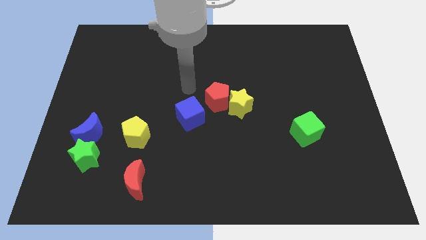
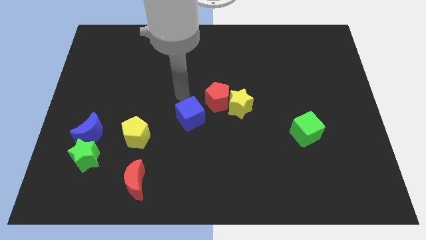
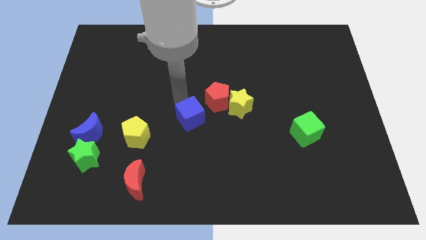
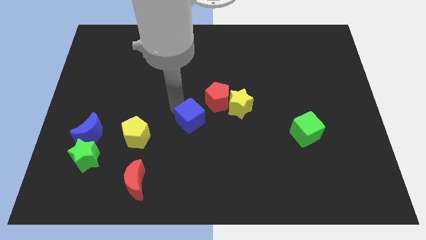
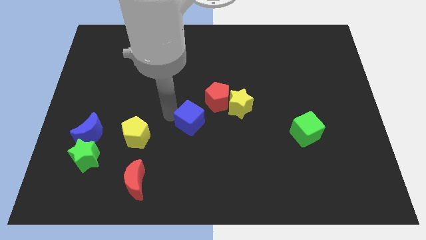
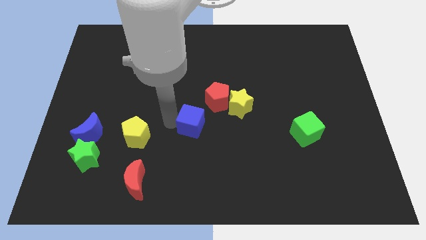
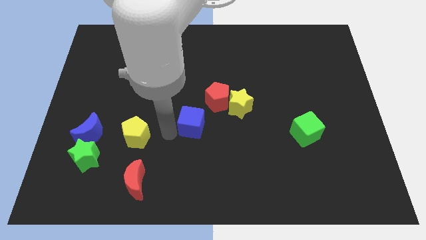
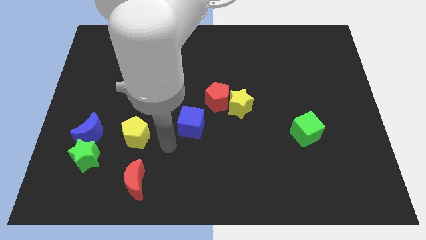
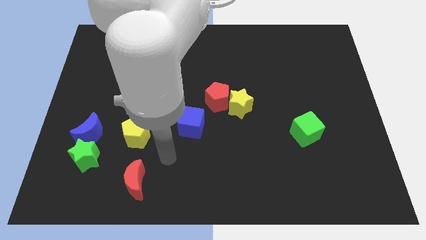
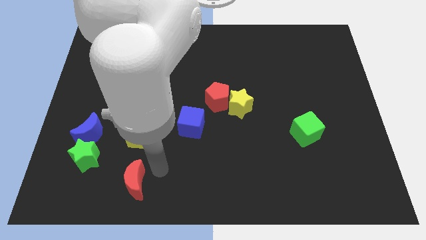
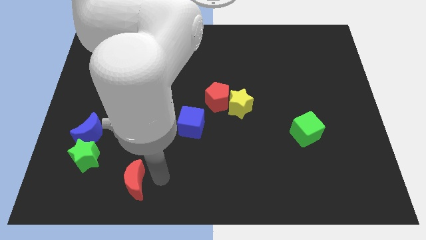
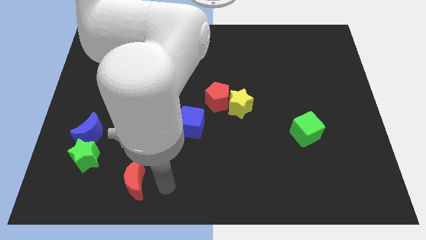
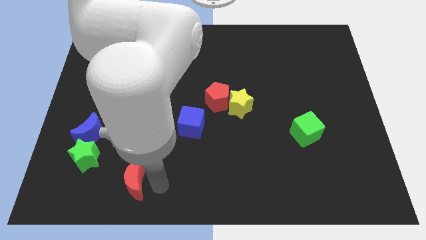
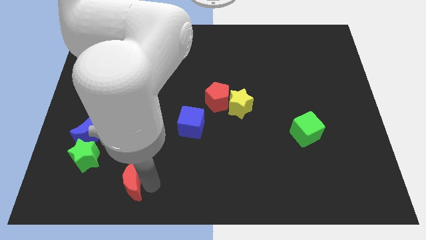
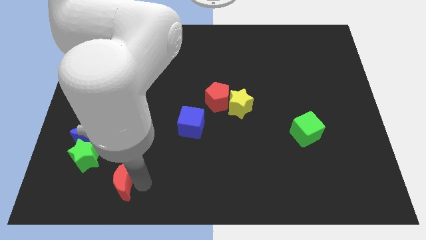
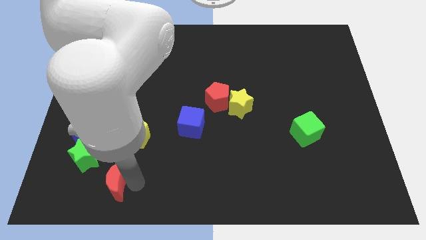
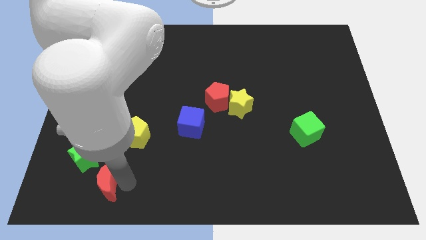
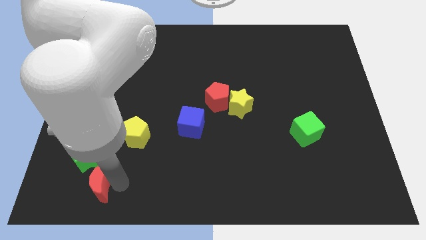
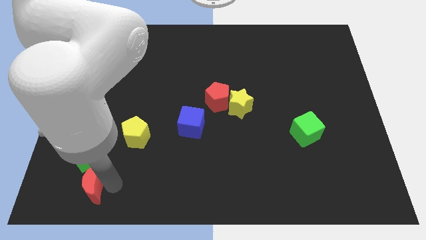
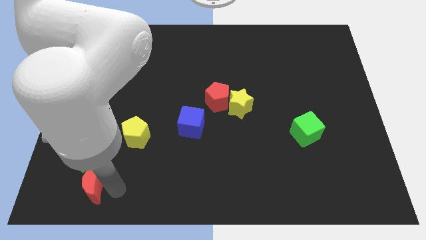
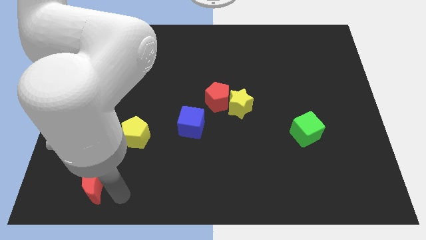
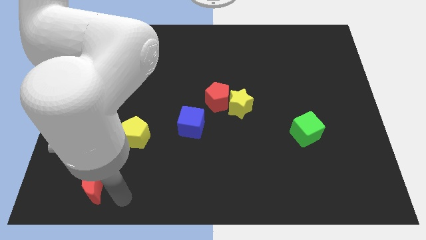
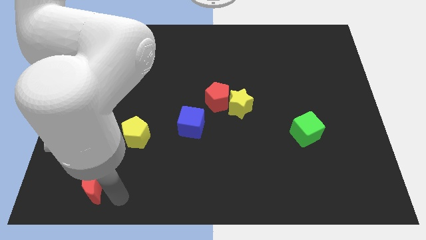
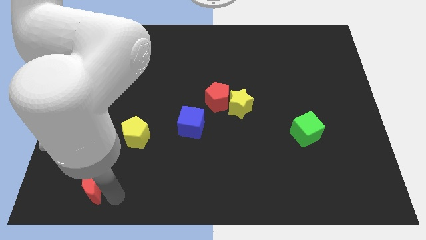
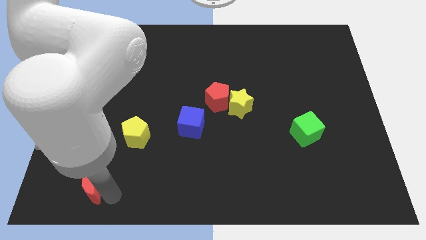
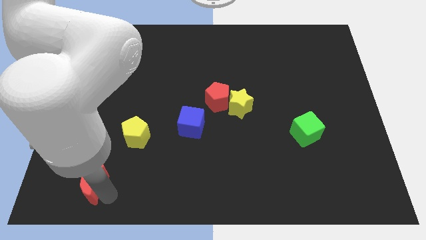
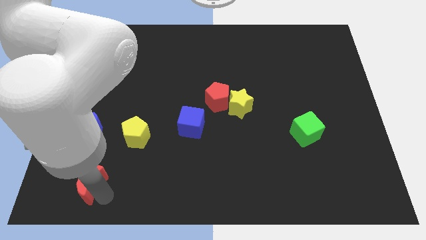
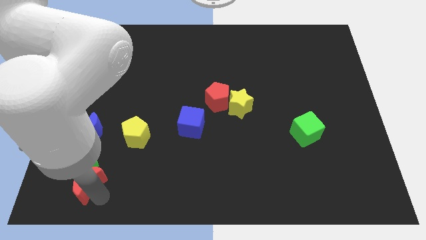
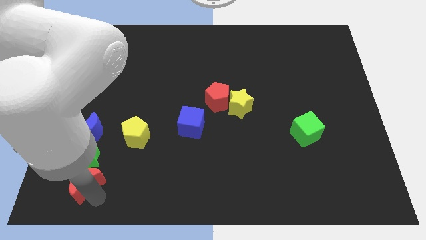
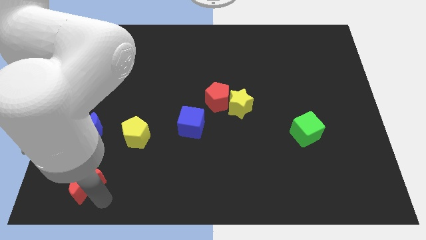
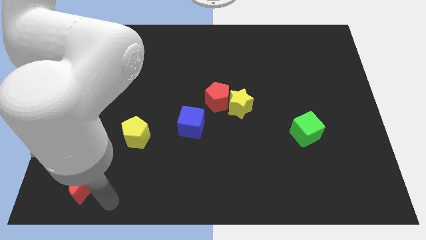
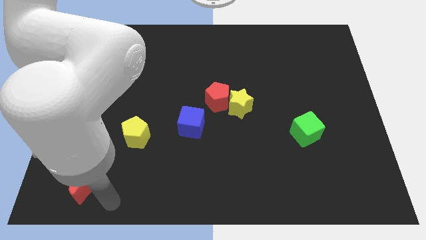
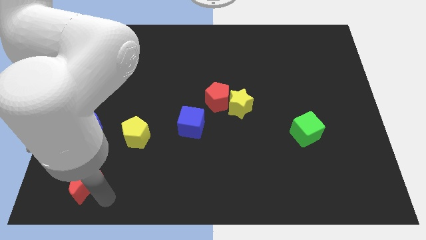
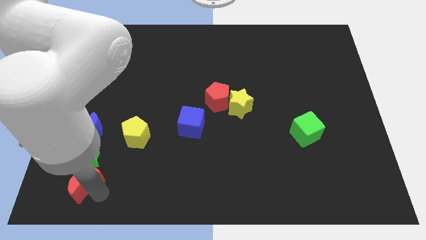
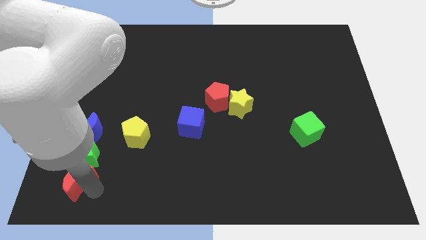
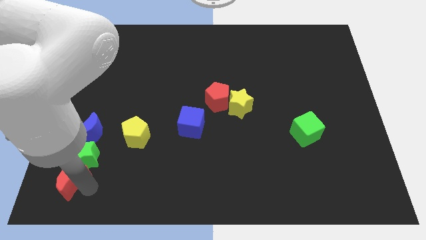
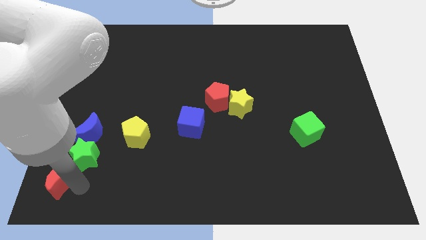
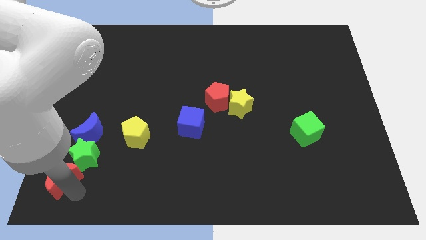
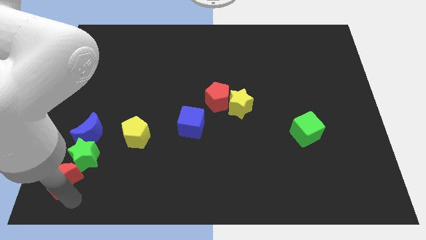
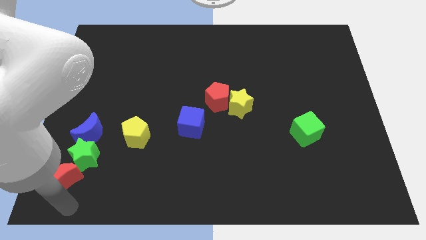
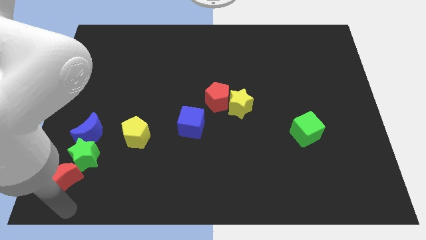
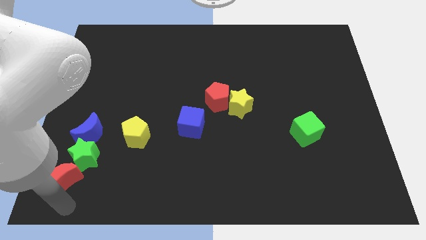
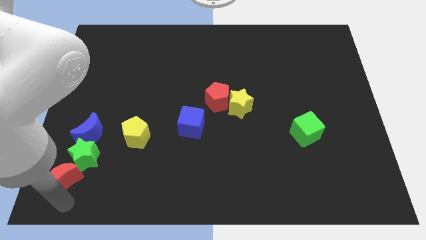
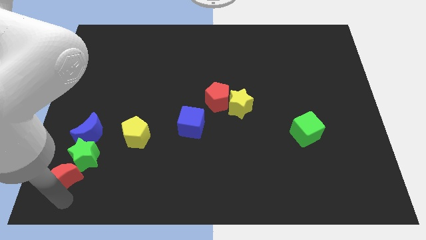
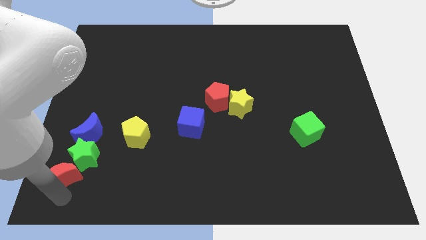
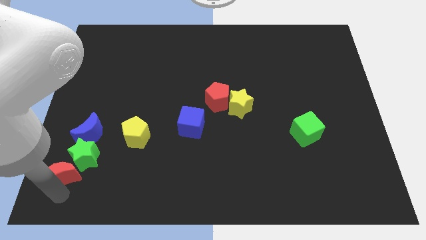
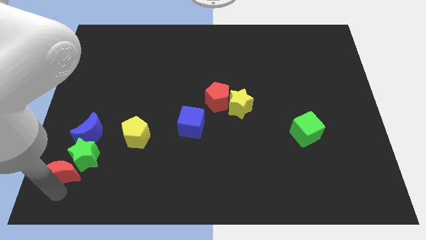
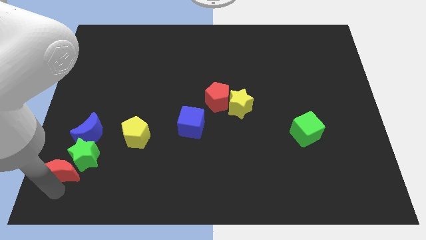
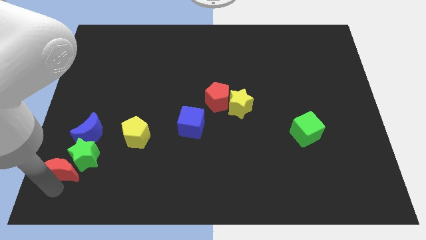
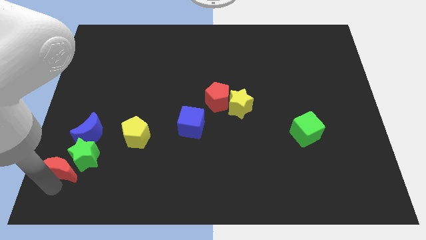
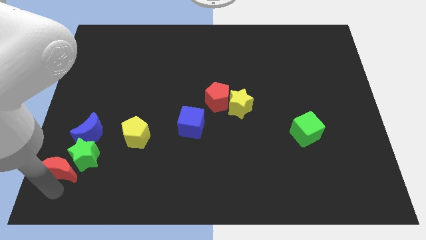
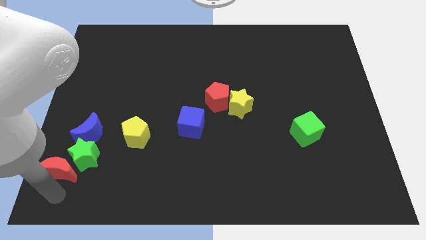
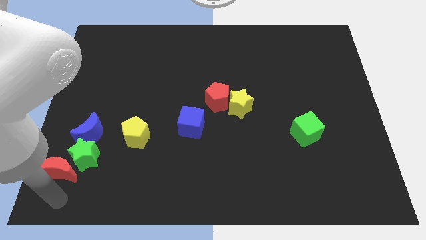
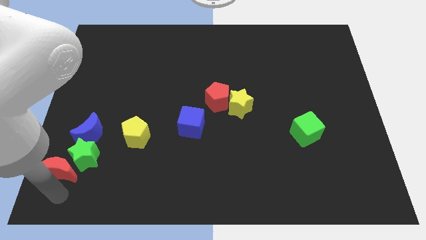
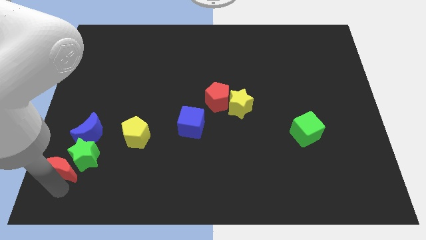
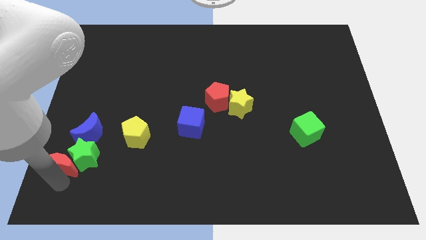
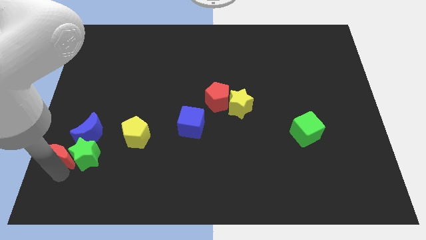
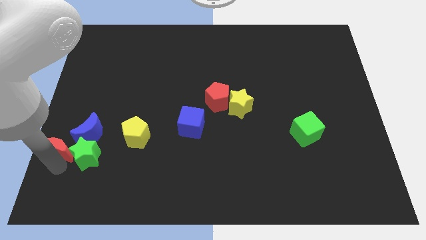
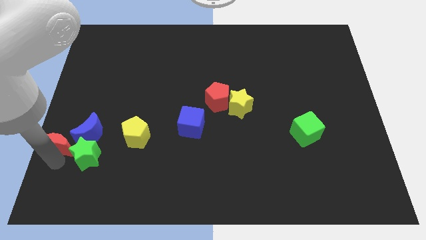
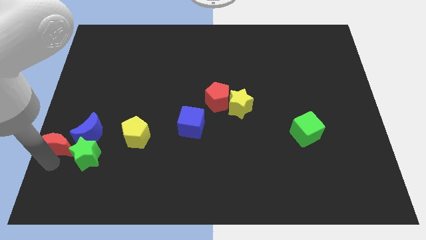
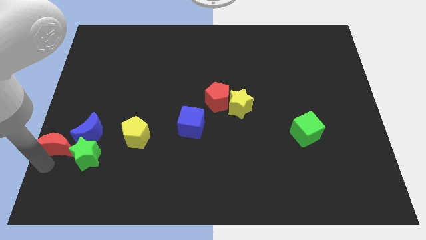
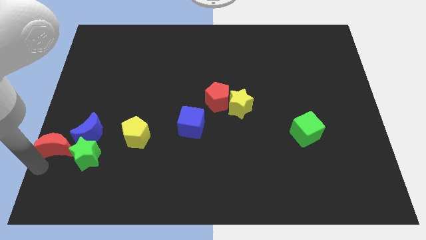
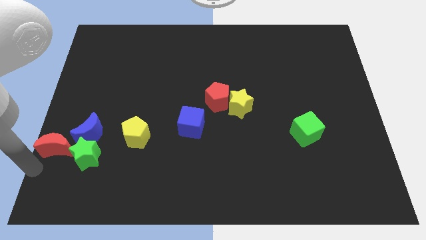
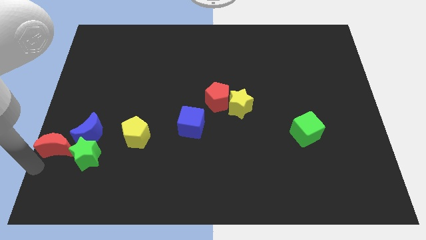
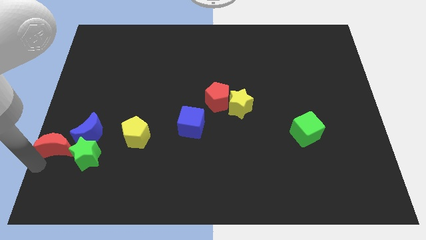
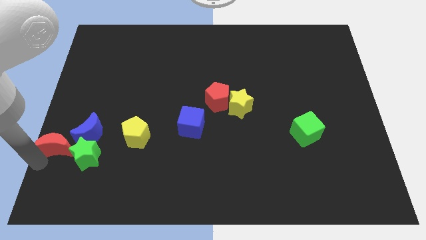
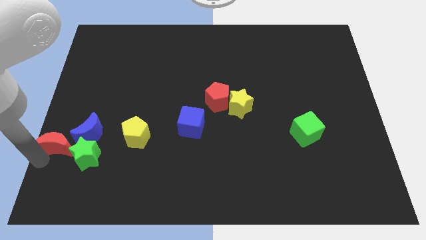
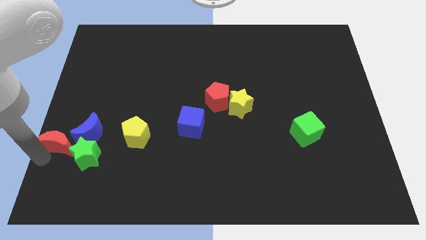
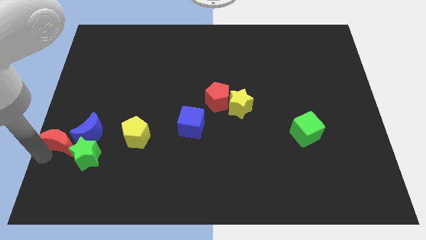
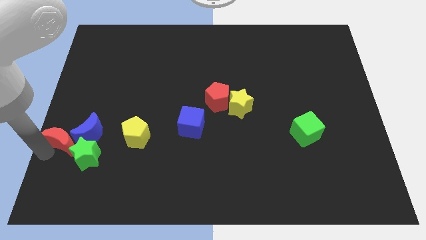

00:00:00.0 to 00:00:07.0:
move the red moon left of the yellow pentagon

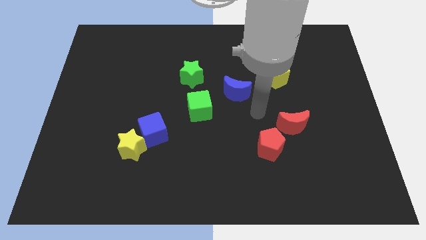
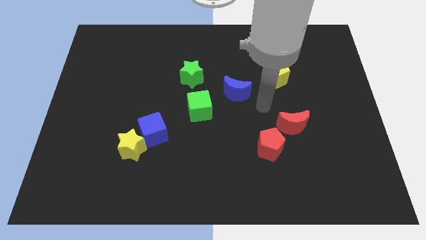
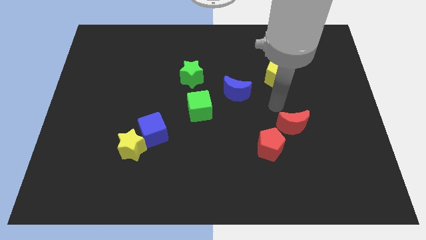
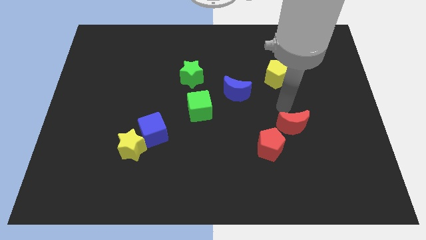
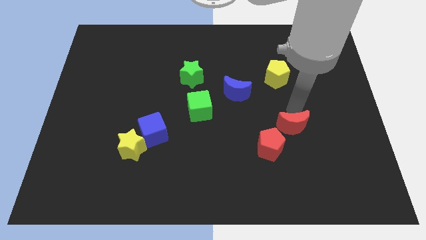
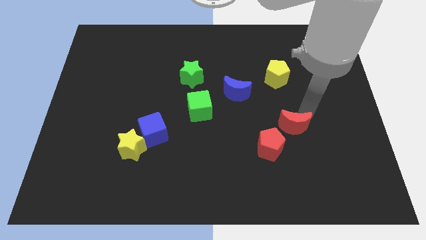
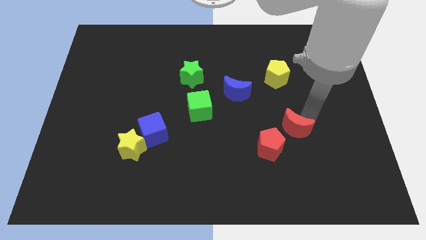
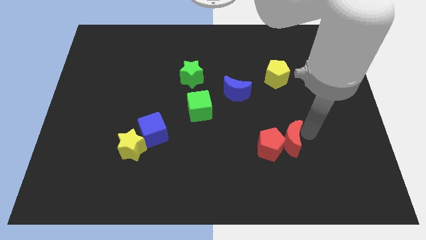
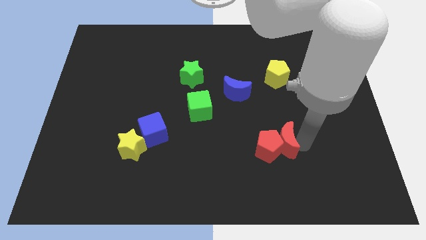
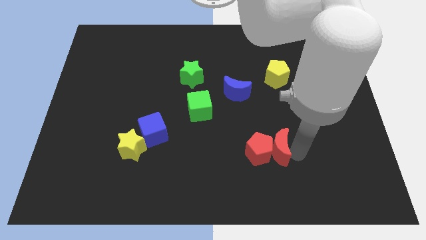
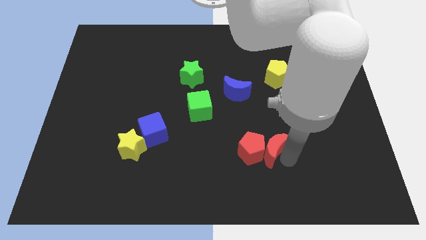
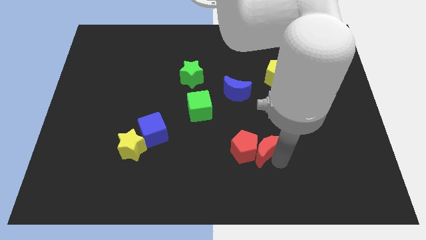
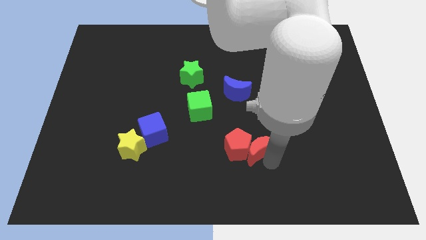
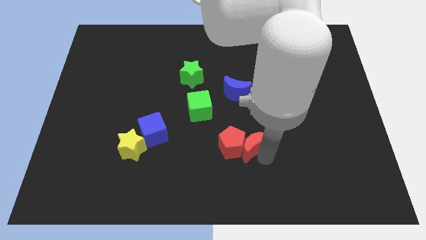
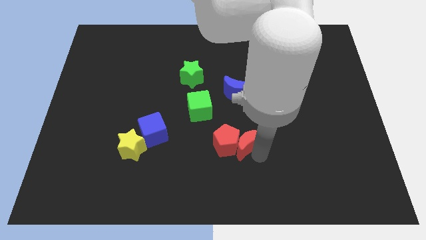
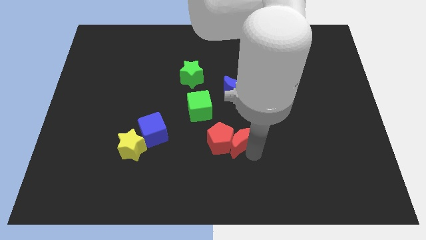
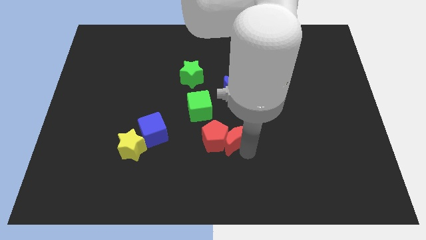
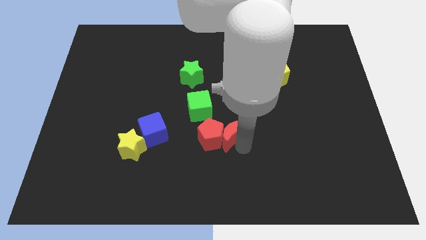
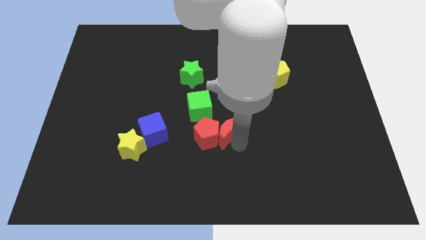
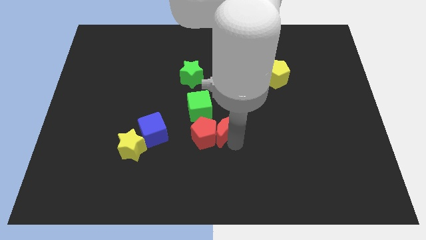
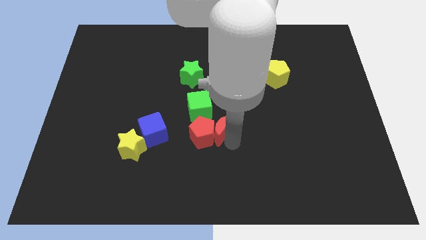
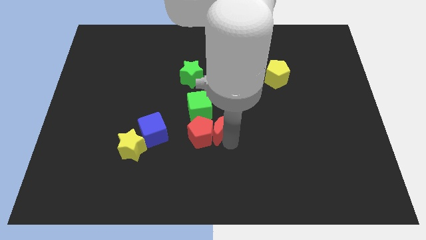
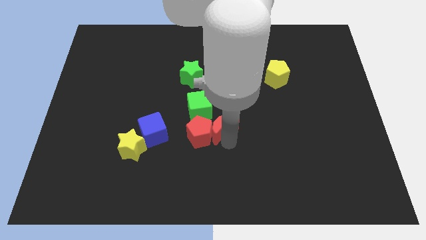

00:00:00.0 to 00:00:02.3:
slide the red pentagon to the bottom left of the green cube
